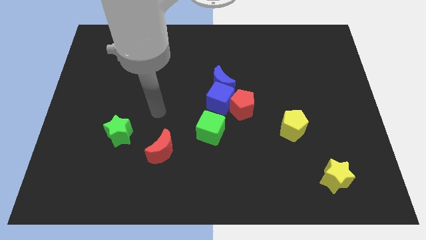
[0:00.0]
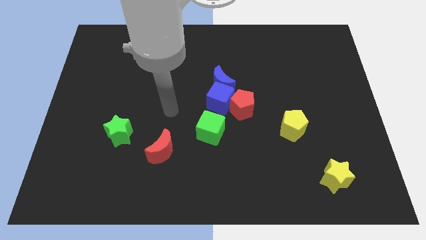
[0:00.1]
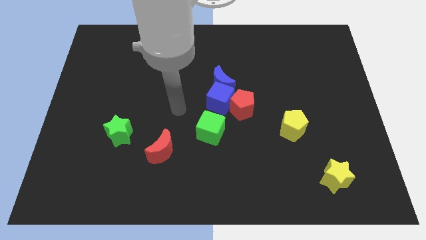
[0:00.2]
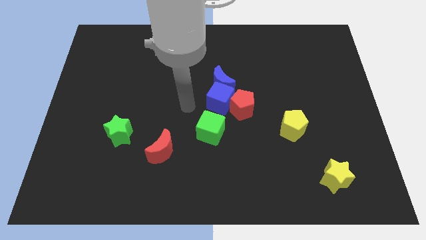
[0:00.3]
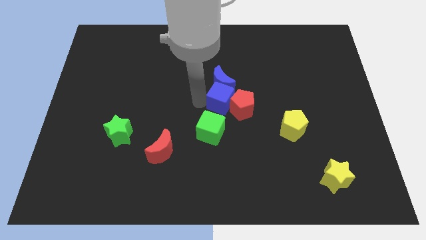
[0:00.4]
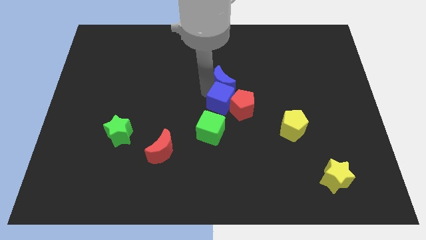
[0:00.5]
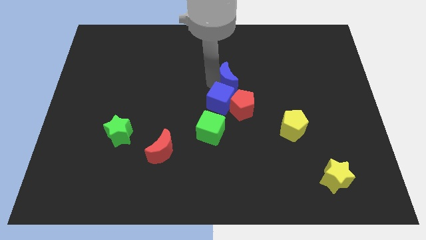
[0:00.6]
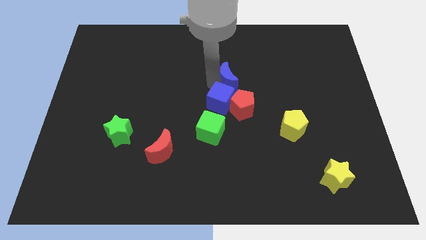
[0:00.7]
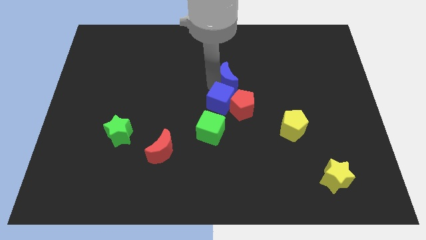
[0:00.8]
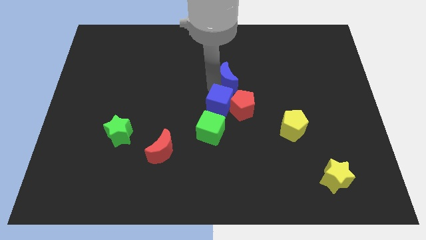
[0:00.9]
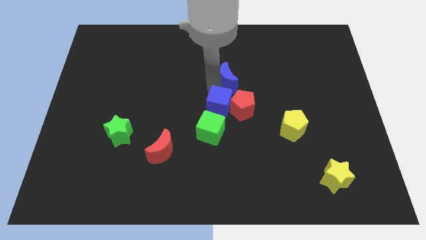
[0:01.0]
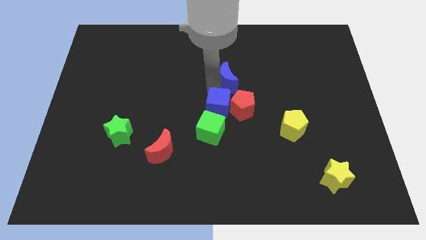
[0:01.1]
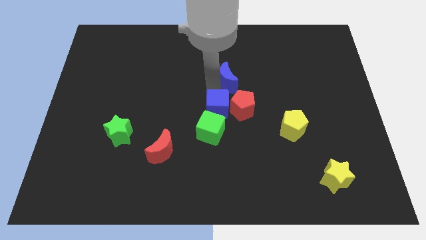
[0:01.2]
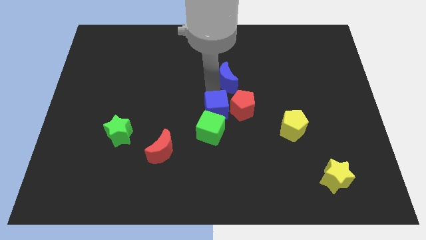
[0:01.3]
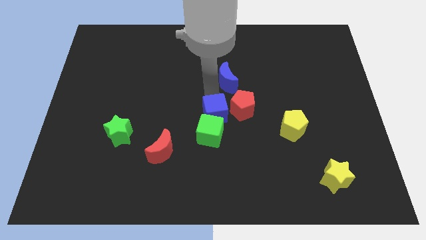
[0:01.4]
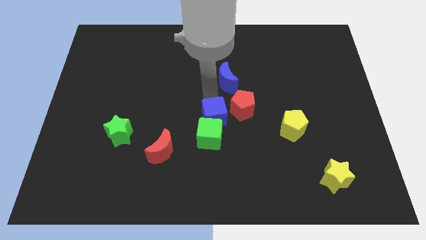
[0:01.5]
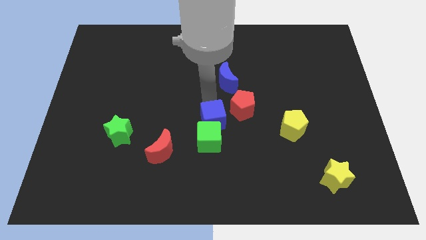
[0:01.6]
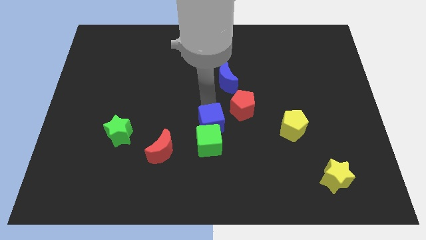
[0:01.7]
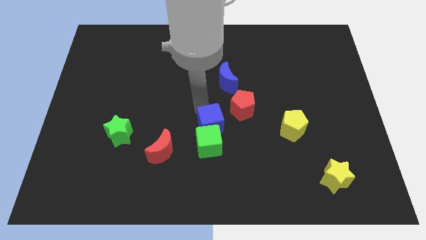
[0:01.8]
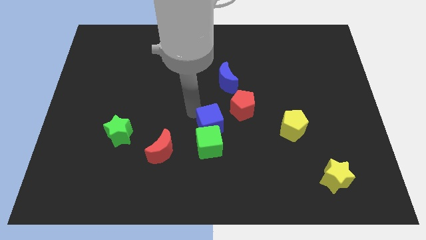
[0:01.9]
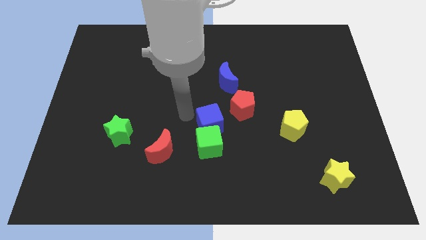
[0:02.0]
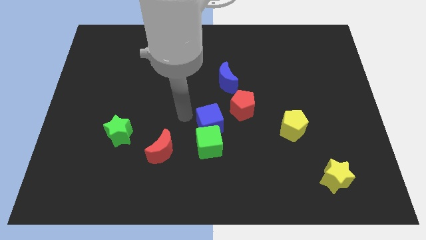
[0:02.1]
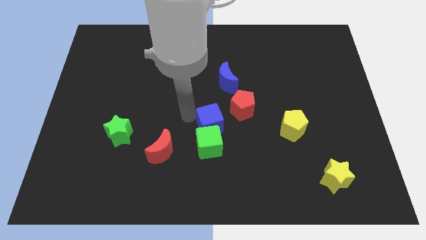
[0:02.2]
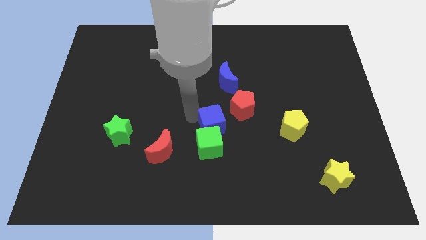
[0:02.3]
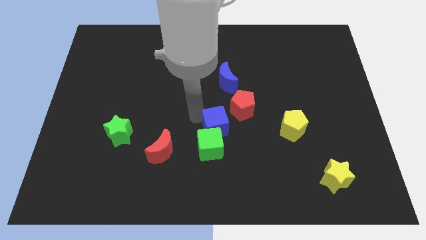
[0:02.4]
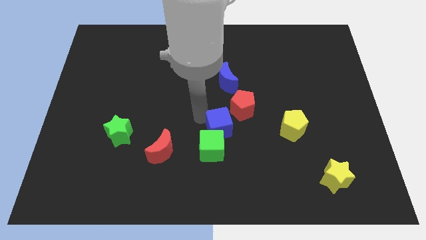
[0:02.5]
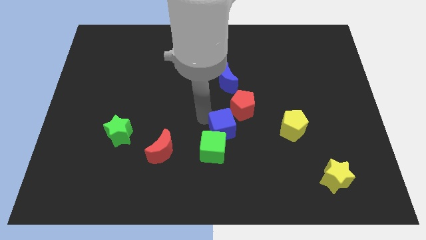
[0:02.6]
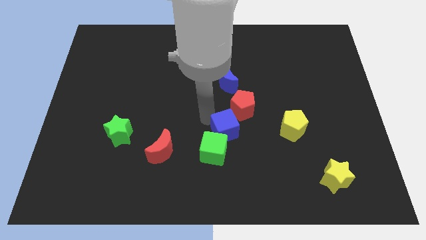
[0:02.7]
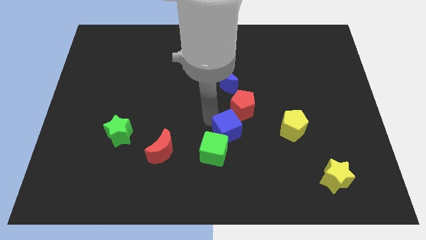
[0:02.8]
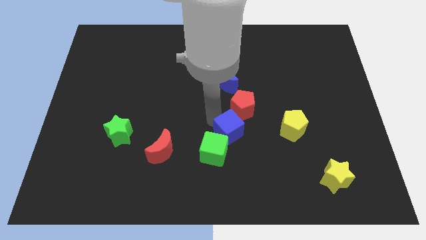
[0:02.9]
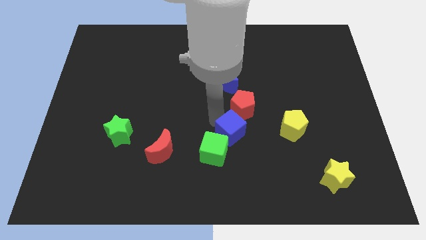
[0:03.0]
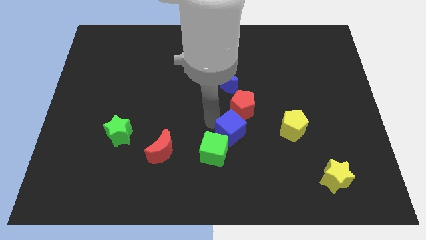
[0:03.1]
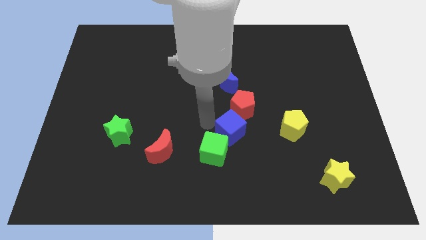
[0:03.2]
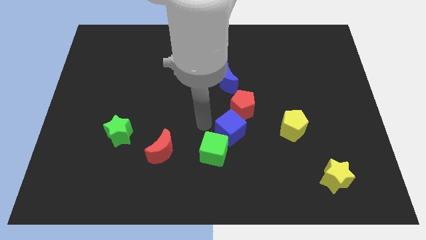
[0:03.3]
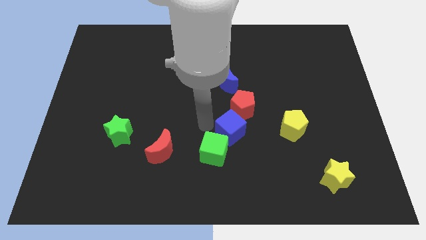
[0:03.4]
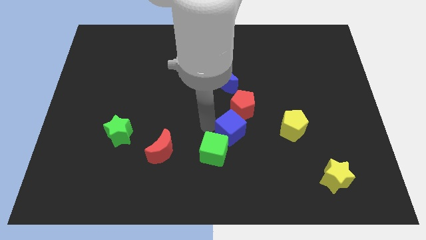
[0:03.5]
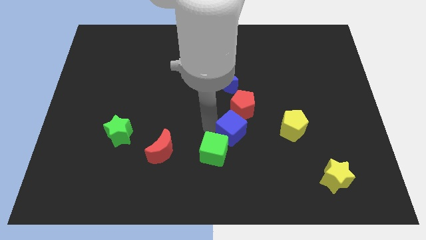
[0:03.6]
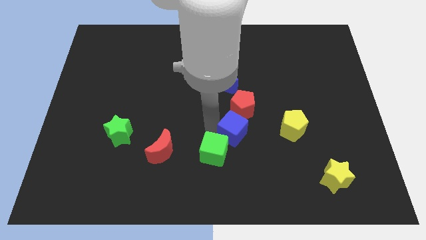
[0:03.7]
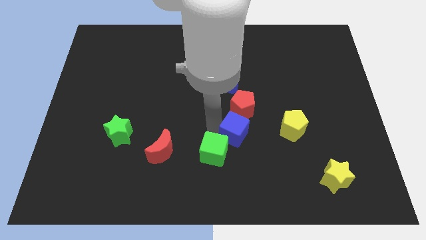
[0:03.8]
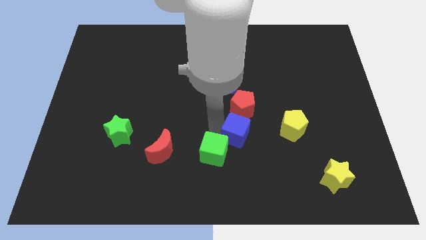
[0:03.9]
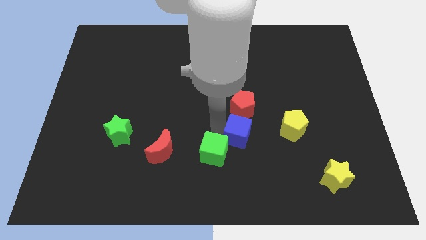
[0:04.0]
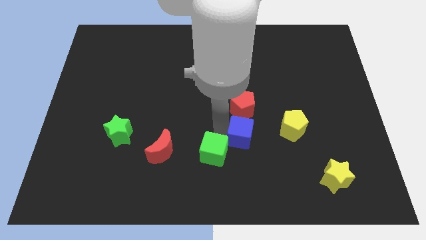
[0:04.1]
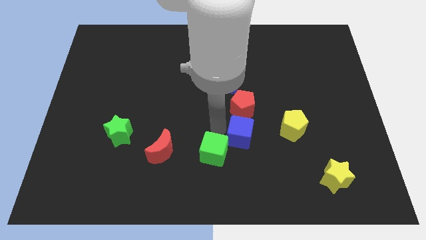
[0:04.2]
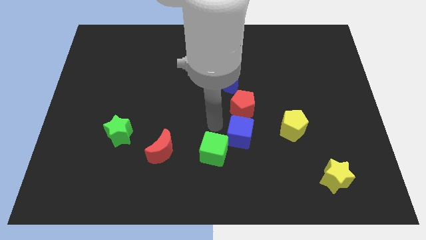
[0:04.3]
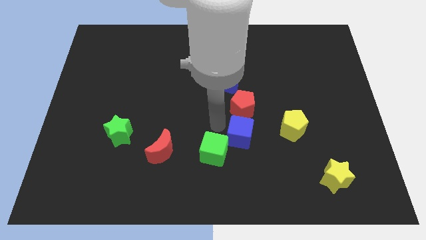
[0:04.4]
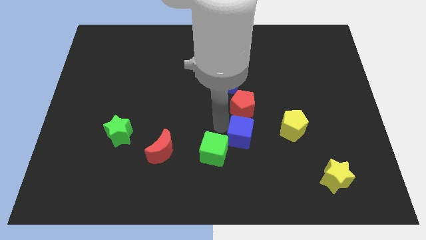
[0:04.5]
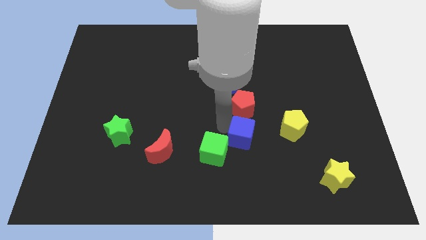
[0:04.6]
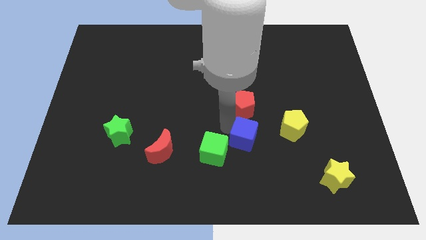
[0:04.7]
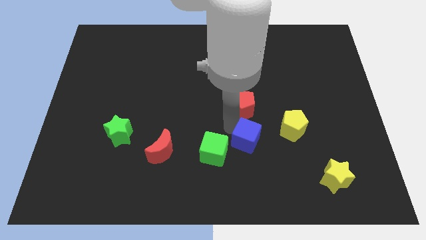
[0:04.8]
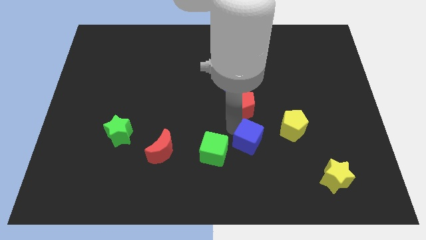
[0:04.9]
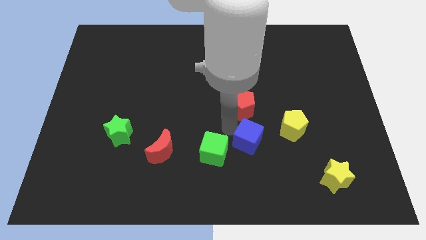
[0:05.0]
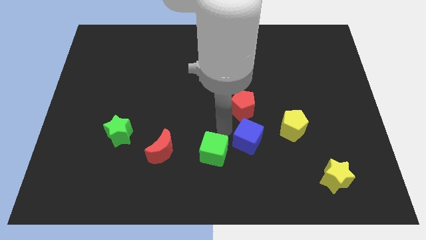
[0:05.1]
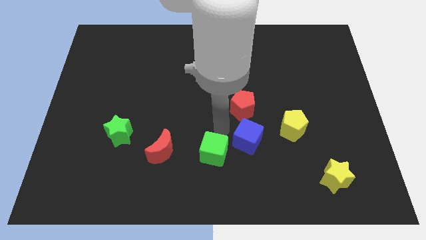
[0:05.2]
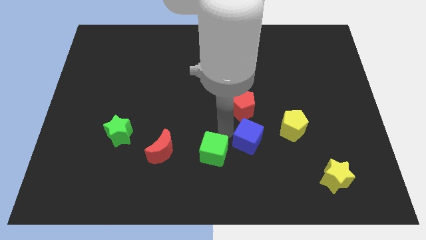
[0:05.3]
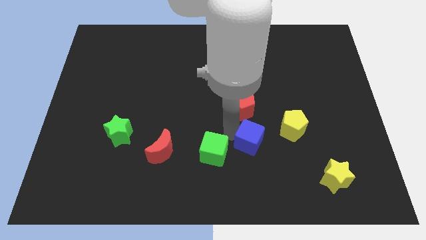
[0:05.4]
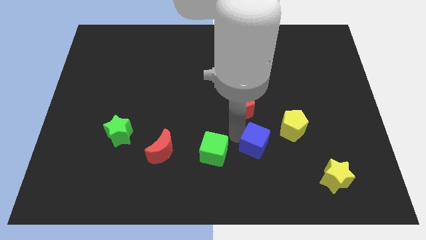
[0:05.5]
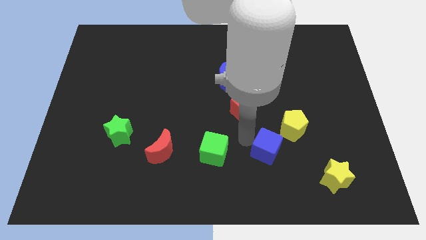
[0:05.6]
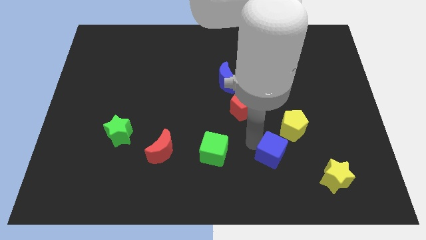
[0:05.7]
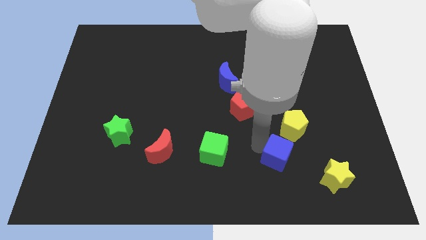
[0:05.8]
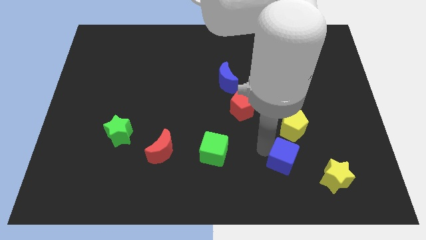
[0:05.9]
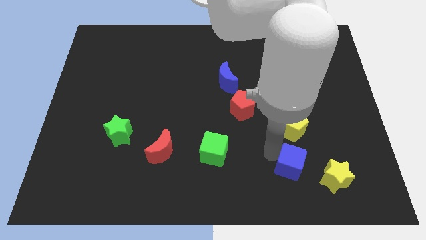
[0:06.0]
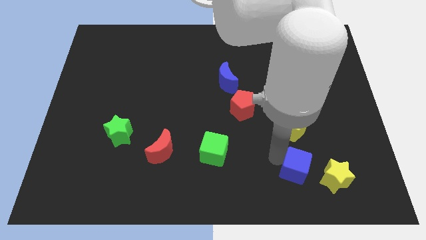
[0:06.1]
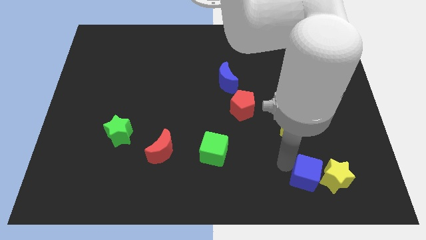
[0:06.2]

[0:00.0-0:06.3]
move the blue cube close to the yellow star

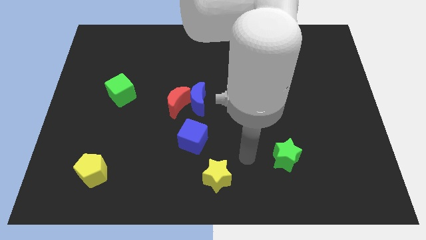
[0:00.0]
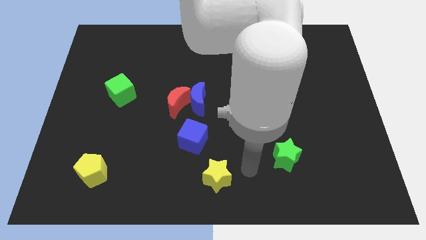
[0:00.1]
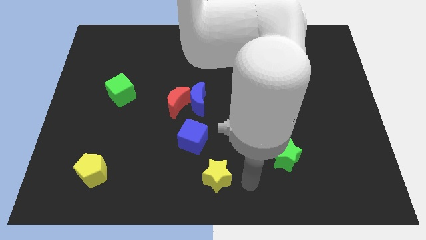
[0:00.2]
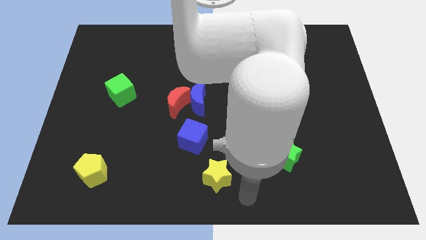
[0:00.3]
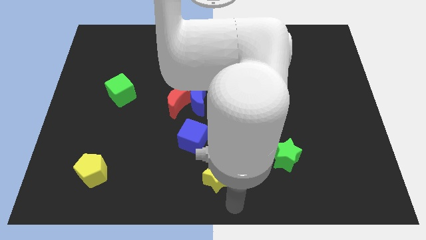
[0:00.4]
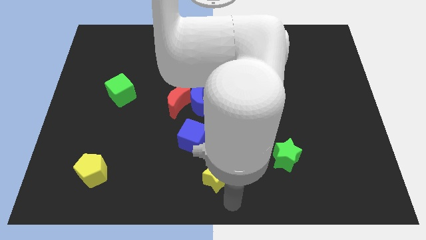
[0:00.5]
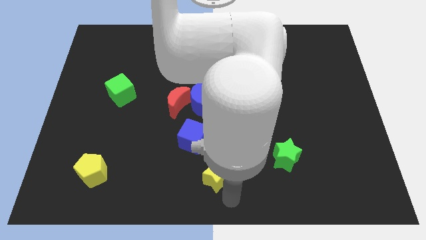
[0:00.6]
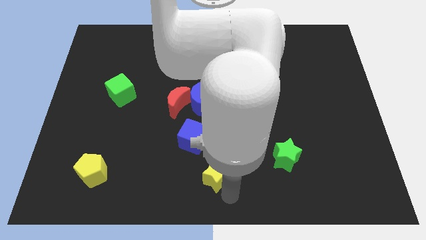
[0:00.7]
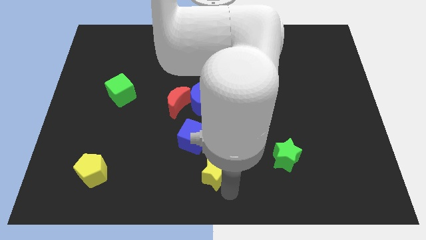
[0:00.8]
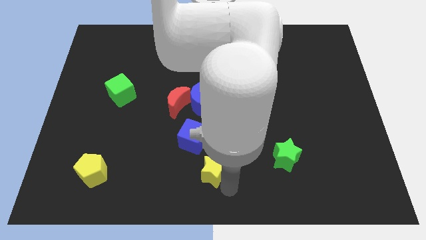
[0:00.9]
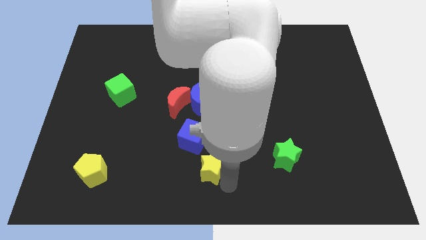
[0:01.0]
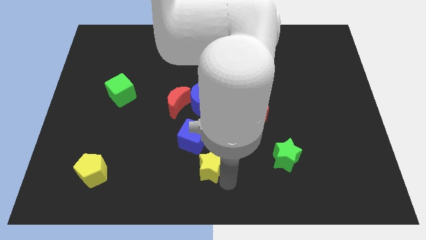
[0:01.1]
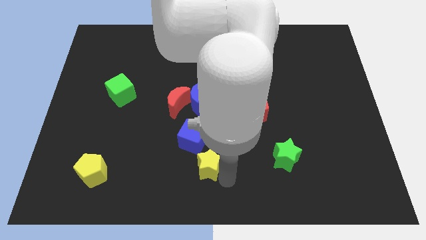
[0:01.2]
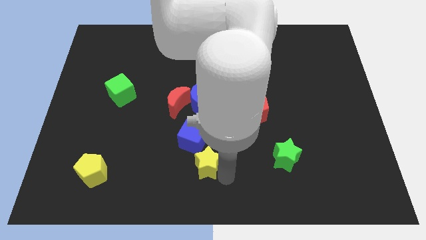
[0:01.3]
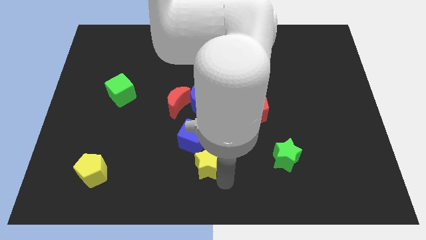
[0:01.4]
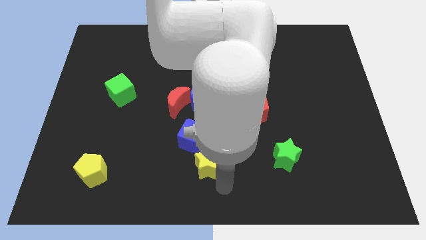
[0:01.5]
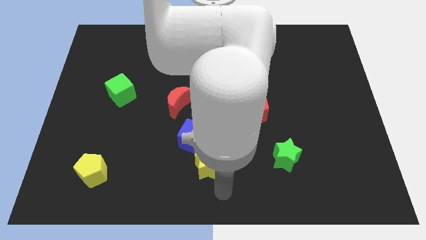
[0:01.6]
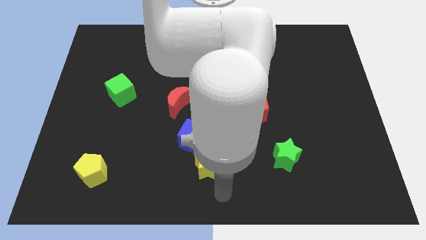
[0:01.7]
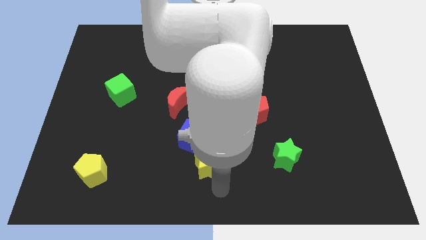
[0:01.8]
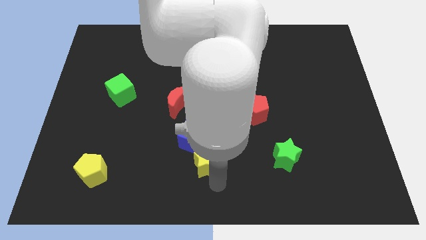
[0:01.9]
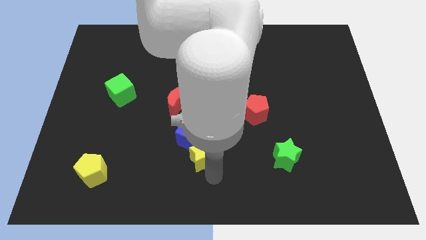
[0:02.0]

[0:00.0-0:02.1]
put the yellow star towards the blue cube
